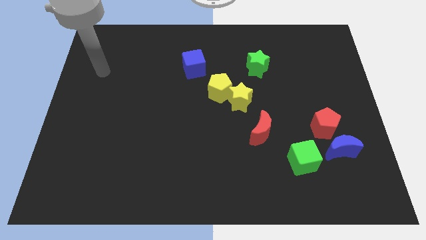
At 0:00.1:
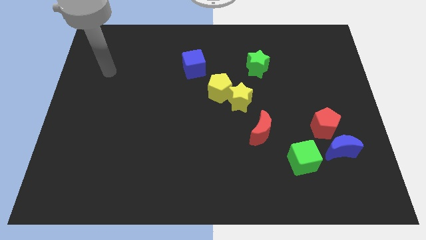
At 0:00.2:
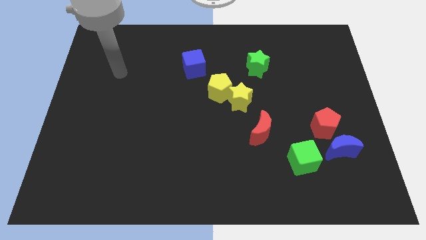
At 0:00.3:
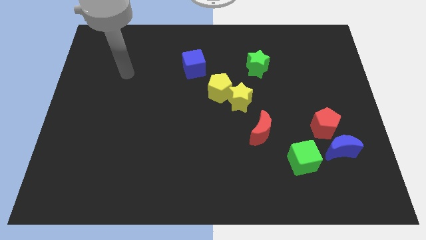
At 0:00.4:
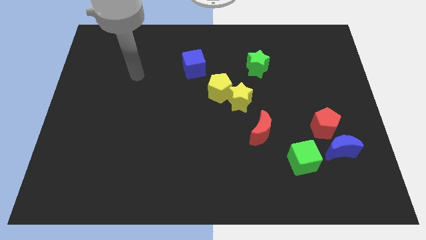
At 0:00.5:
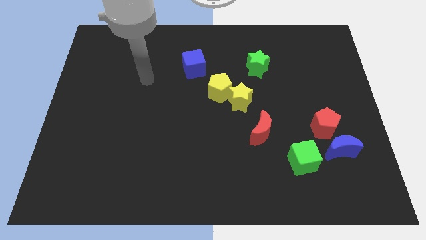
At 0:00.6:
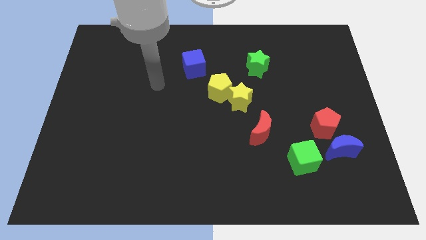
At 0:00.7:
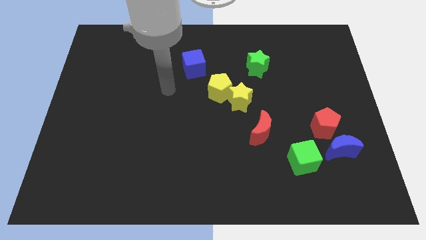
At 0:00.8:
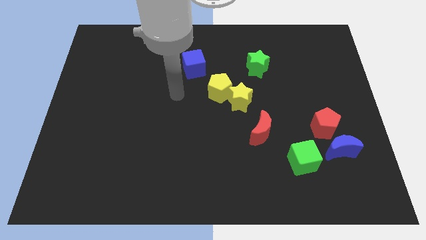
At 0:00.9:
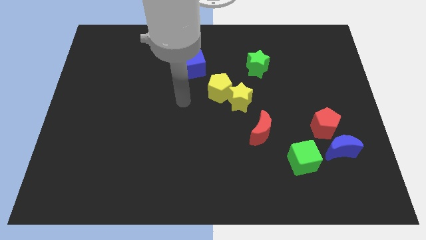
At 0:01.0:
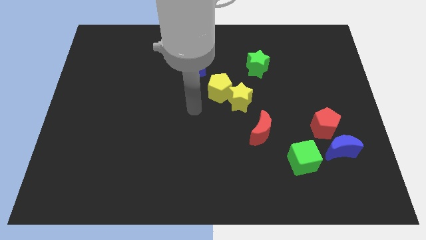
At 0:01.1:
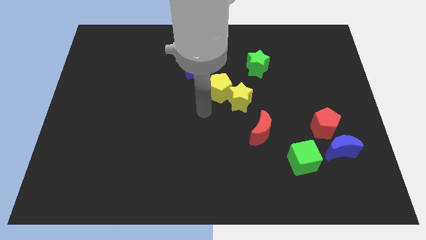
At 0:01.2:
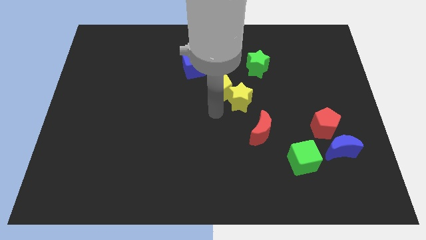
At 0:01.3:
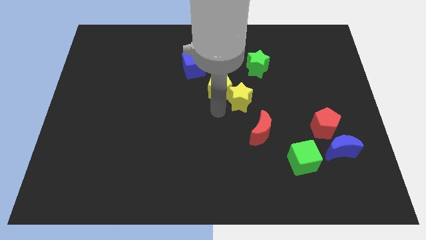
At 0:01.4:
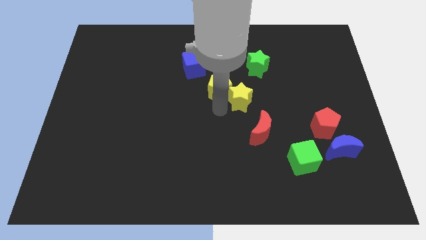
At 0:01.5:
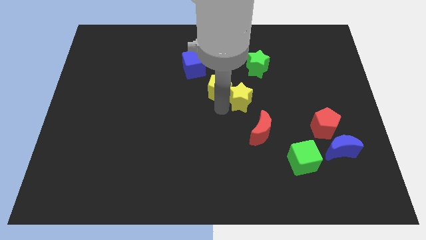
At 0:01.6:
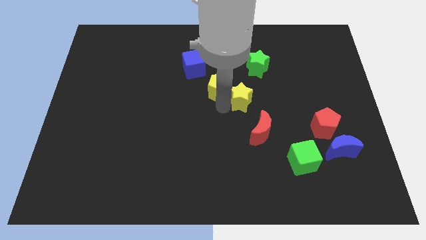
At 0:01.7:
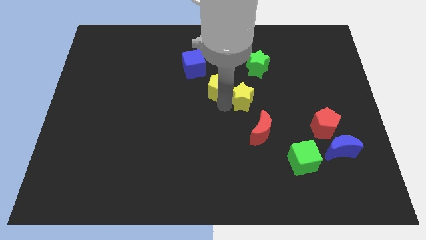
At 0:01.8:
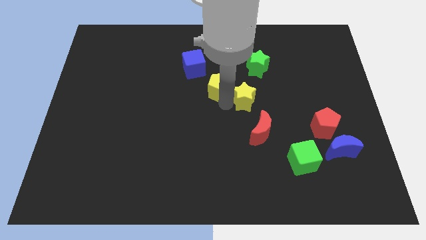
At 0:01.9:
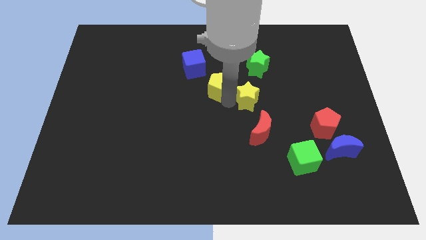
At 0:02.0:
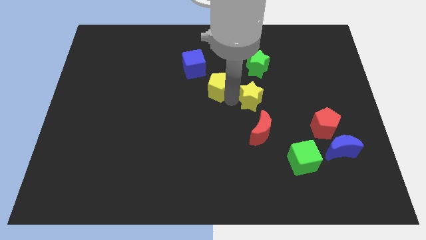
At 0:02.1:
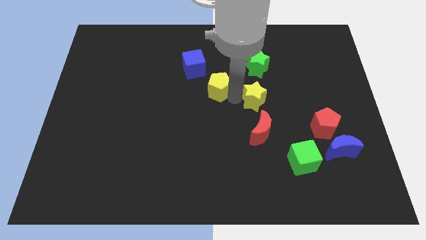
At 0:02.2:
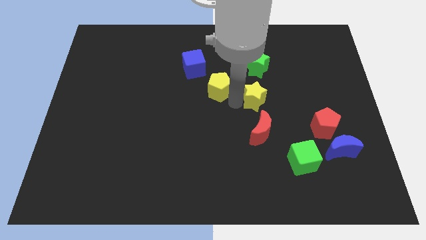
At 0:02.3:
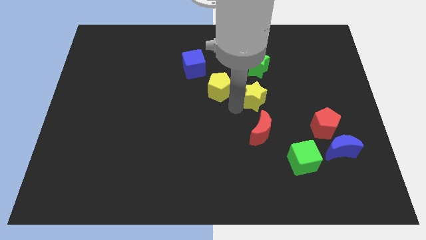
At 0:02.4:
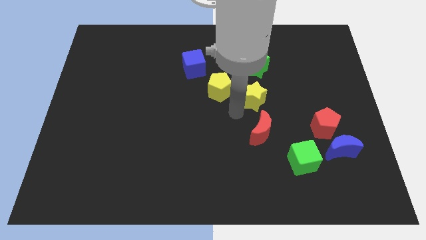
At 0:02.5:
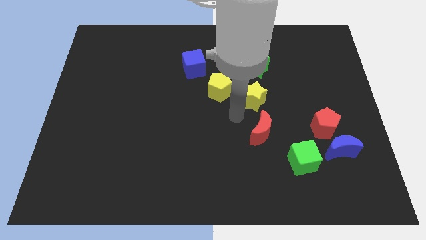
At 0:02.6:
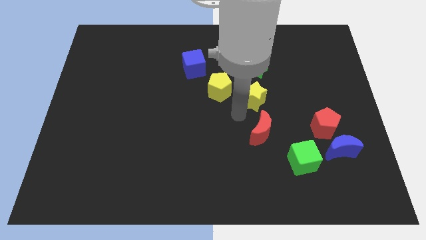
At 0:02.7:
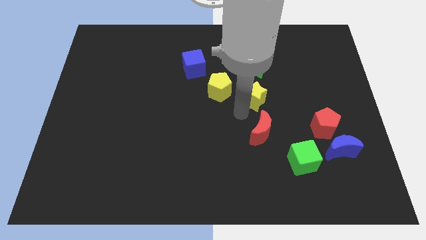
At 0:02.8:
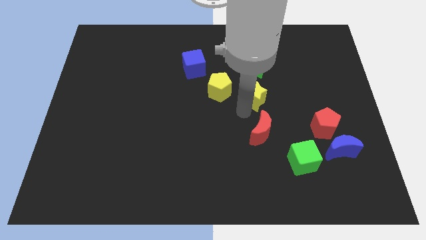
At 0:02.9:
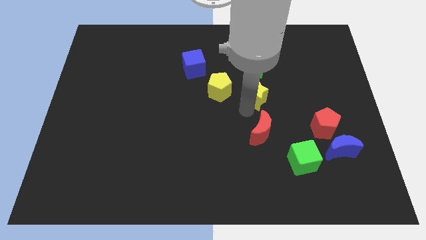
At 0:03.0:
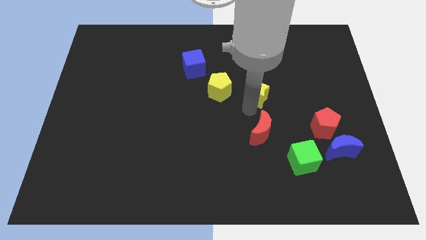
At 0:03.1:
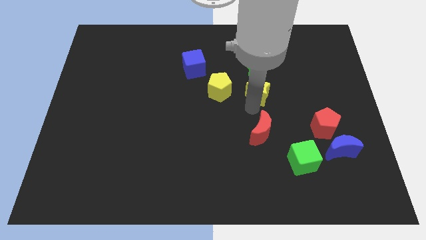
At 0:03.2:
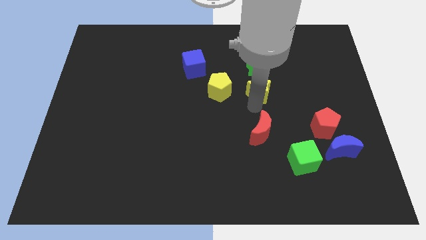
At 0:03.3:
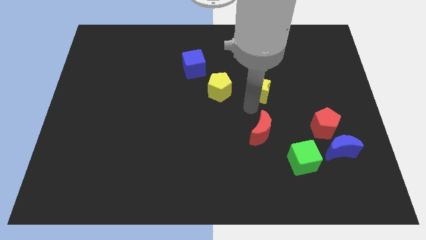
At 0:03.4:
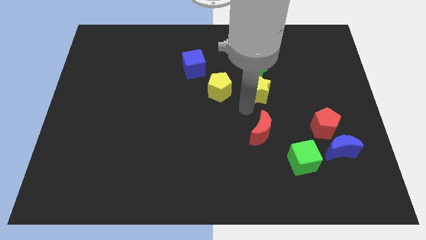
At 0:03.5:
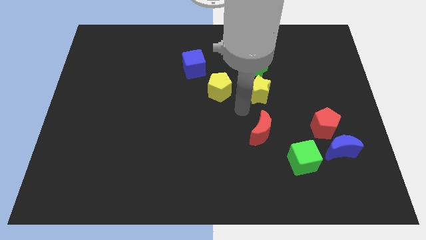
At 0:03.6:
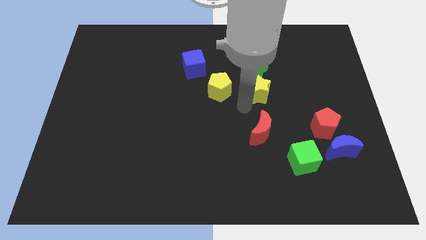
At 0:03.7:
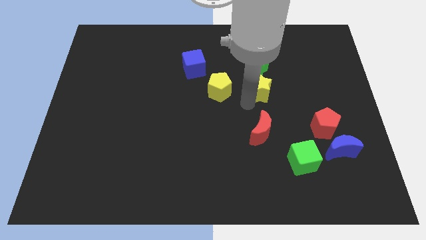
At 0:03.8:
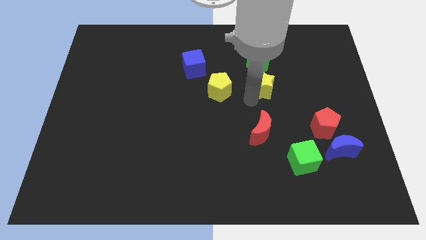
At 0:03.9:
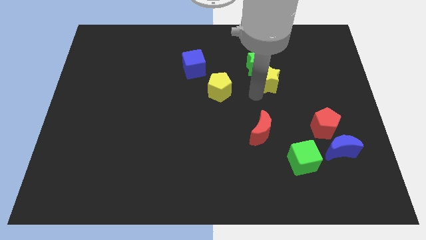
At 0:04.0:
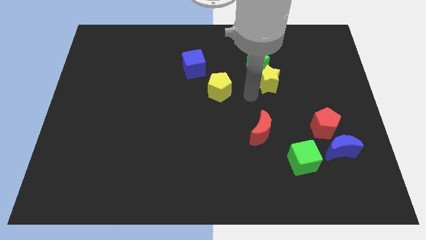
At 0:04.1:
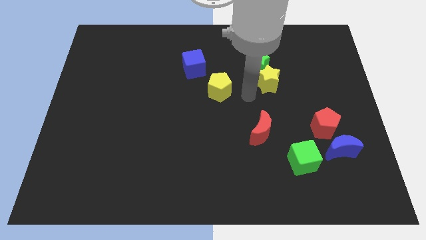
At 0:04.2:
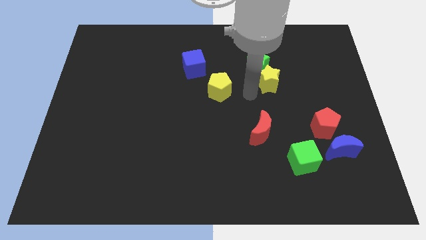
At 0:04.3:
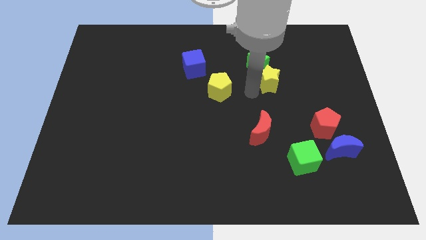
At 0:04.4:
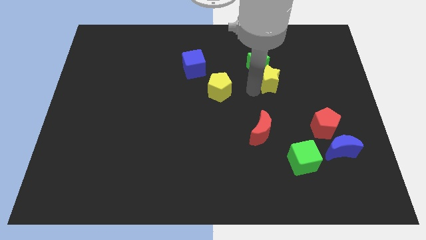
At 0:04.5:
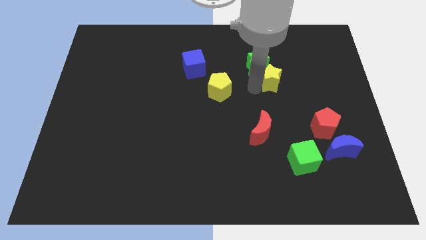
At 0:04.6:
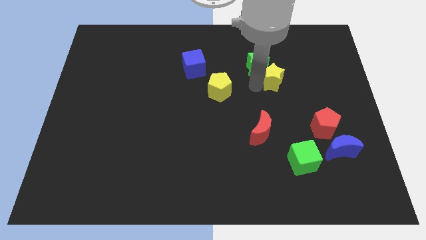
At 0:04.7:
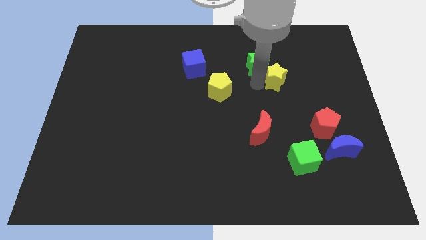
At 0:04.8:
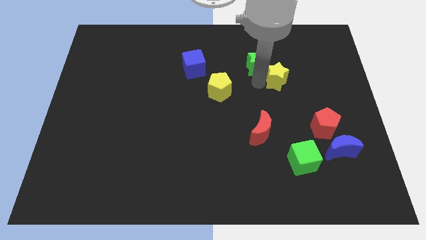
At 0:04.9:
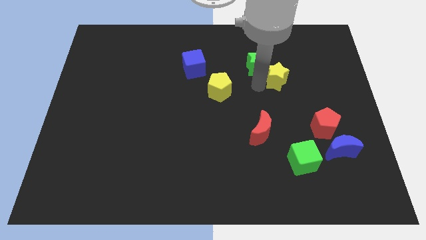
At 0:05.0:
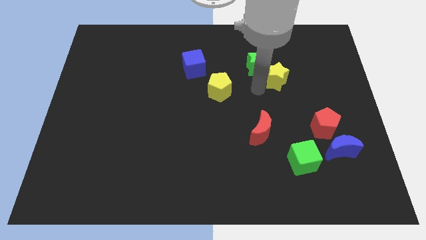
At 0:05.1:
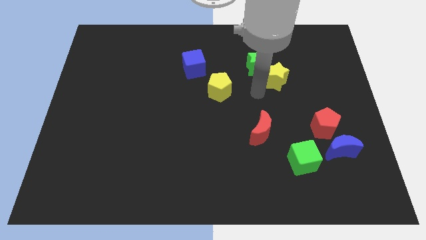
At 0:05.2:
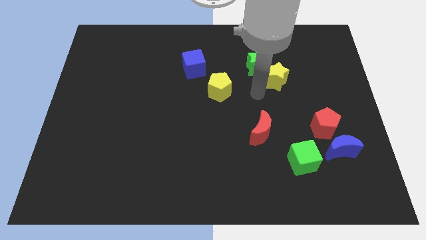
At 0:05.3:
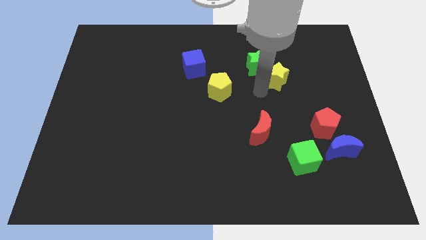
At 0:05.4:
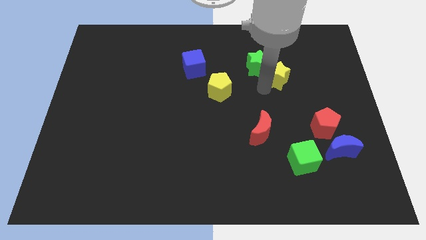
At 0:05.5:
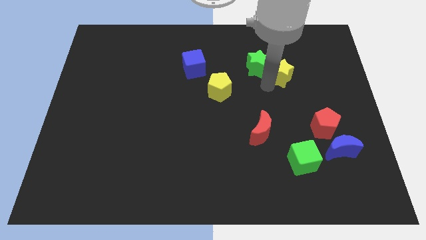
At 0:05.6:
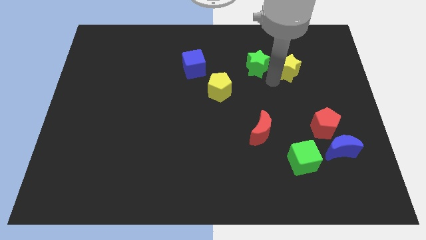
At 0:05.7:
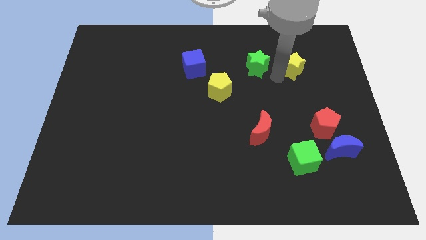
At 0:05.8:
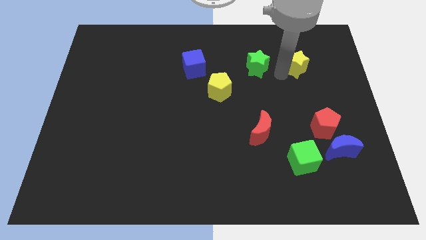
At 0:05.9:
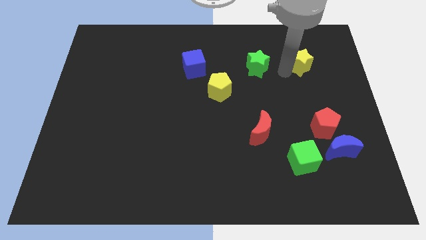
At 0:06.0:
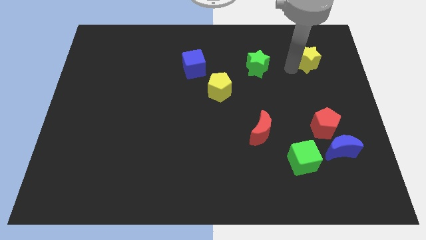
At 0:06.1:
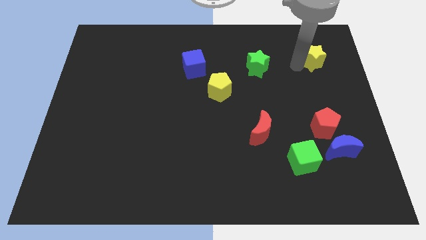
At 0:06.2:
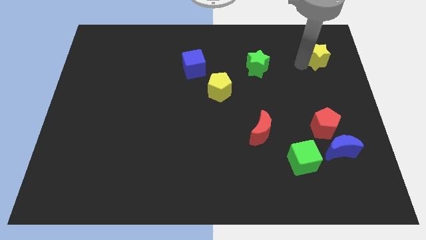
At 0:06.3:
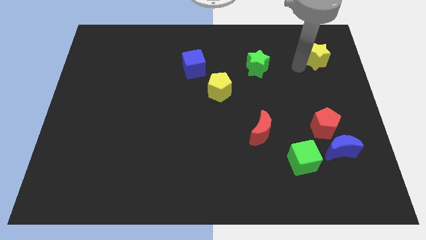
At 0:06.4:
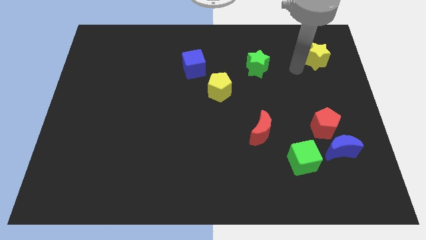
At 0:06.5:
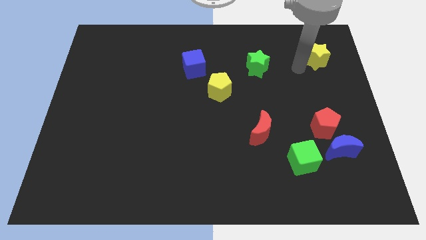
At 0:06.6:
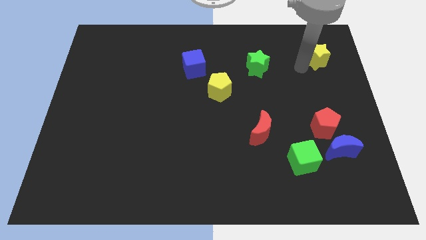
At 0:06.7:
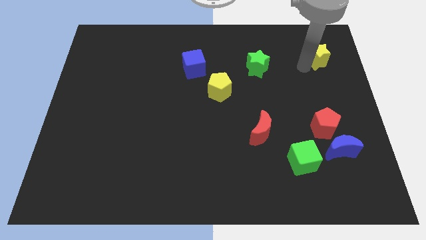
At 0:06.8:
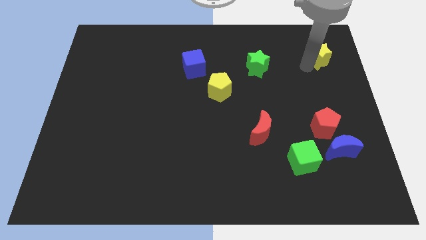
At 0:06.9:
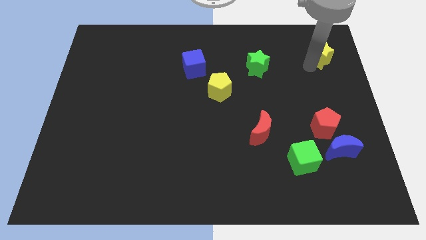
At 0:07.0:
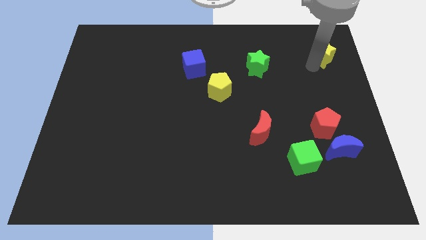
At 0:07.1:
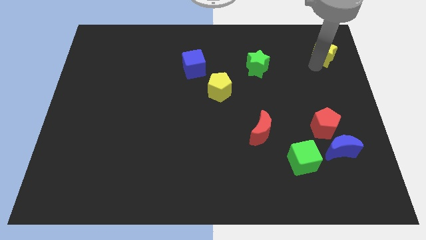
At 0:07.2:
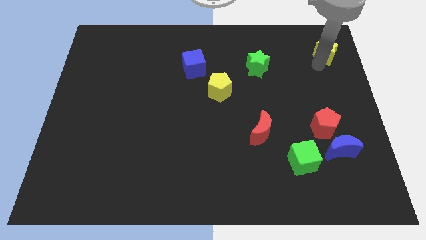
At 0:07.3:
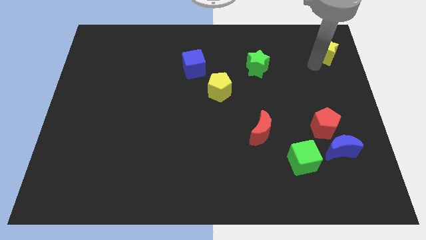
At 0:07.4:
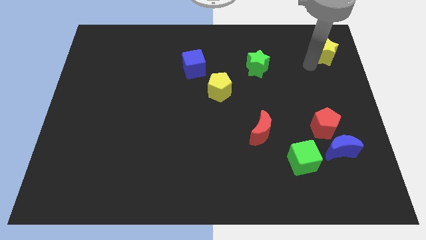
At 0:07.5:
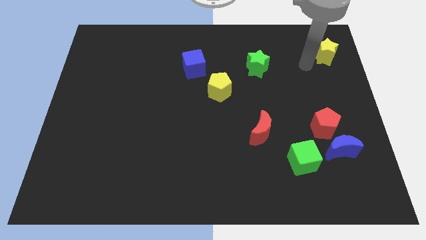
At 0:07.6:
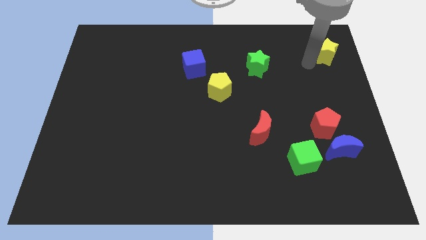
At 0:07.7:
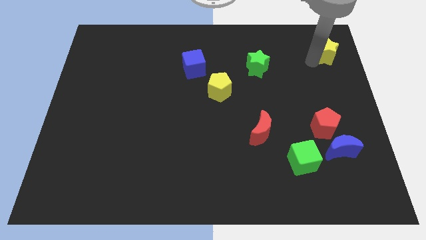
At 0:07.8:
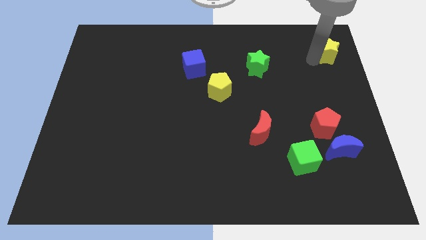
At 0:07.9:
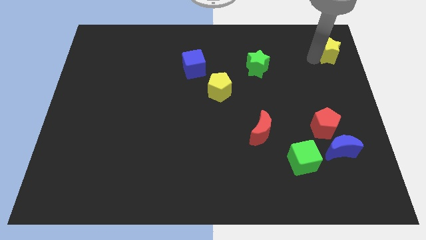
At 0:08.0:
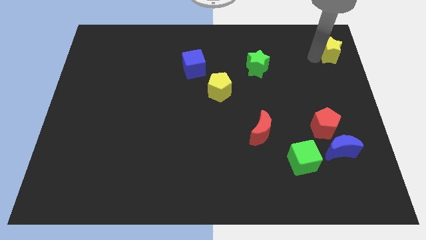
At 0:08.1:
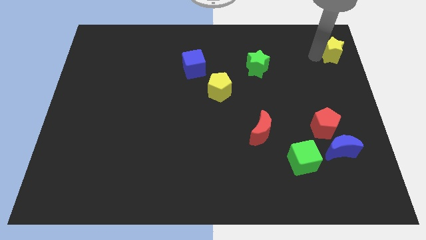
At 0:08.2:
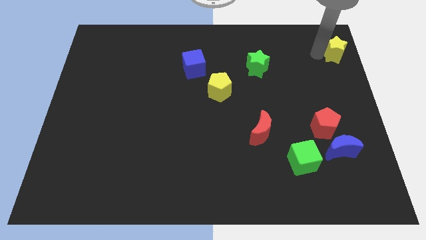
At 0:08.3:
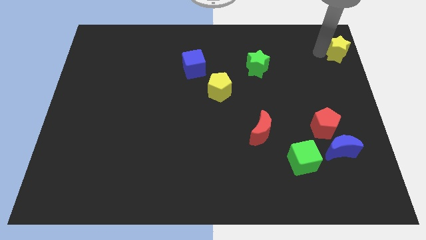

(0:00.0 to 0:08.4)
push the yellow star to the upper right corner
